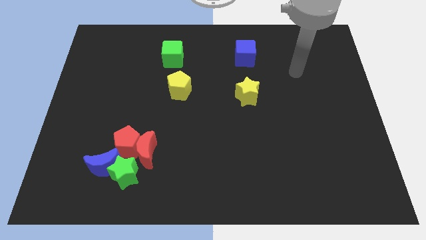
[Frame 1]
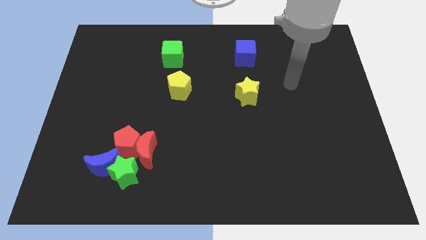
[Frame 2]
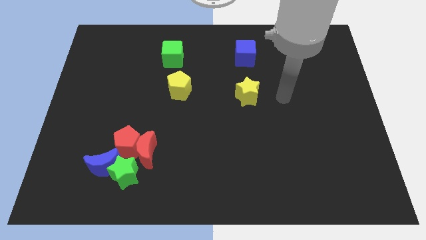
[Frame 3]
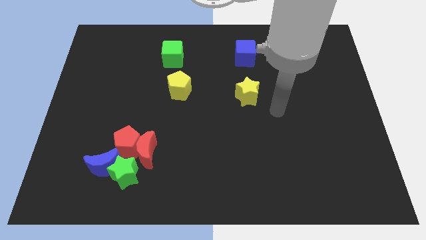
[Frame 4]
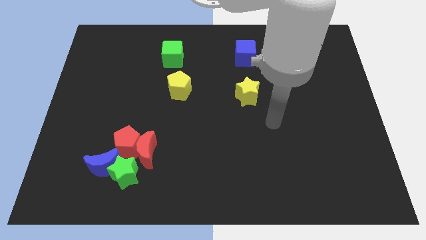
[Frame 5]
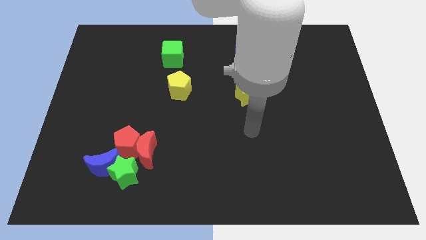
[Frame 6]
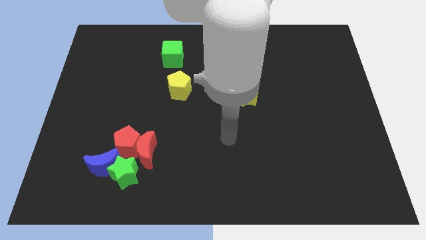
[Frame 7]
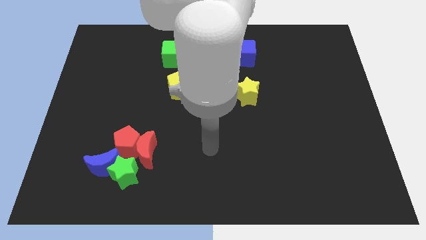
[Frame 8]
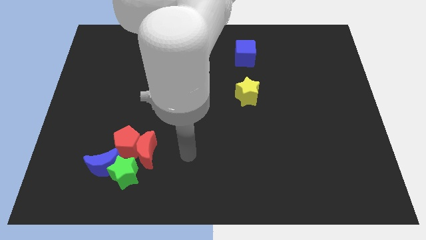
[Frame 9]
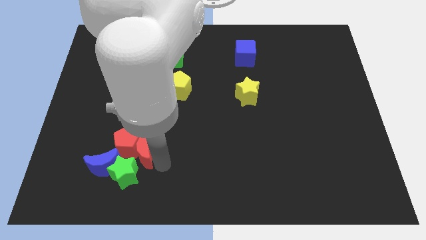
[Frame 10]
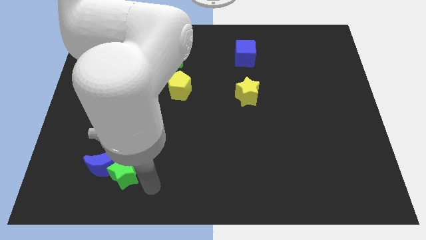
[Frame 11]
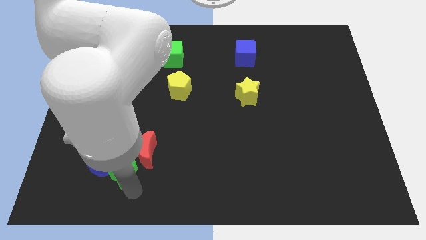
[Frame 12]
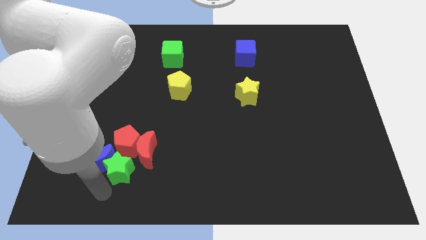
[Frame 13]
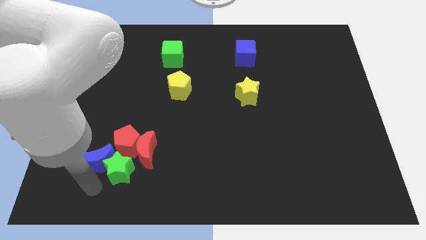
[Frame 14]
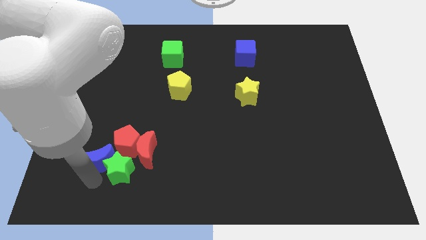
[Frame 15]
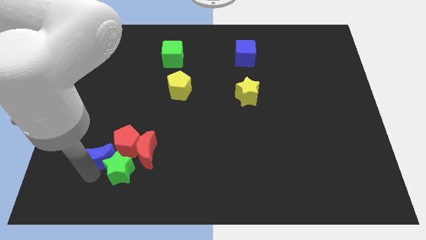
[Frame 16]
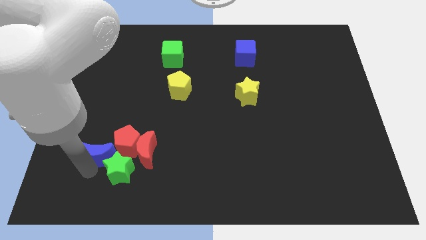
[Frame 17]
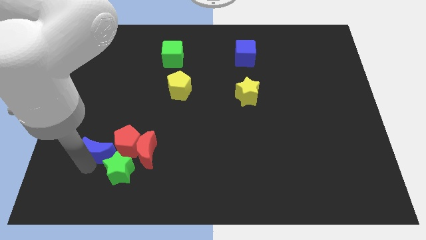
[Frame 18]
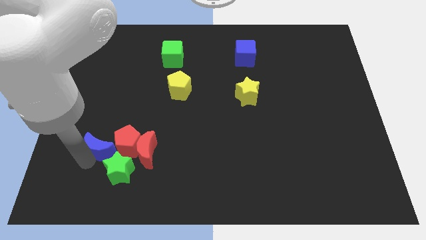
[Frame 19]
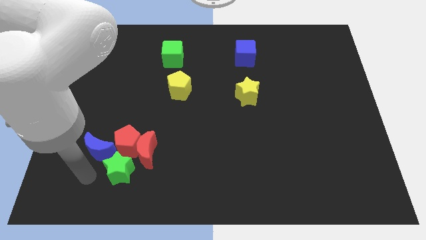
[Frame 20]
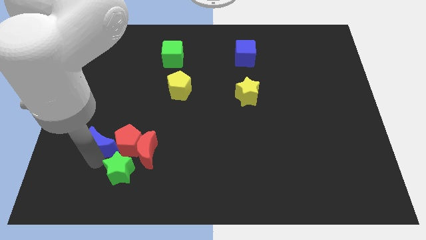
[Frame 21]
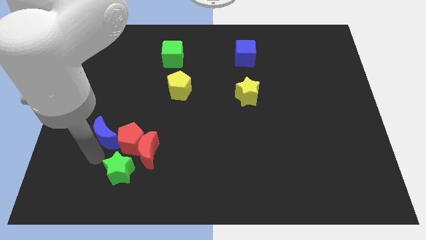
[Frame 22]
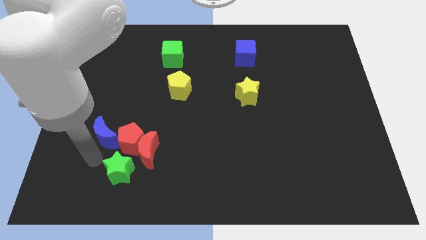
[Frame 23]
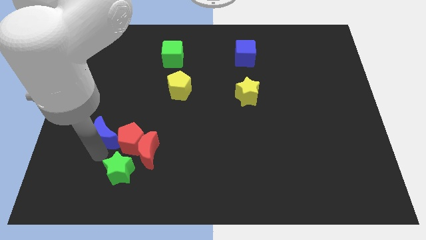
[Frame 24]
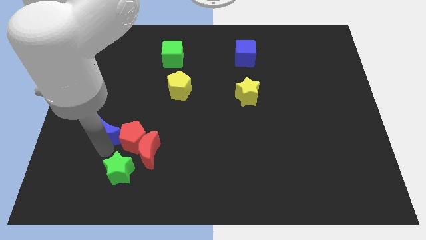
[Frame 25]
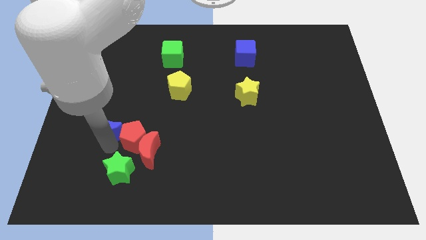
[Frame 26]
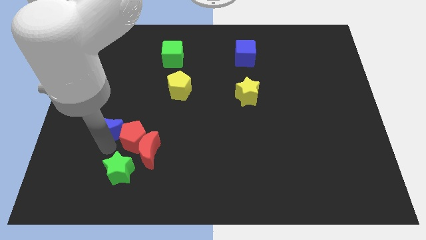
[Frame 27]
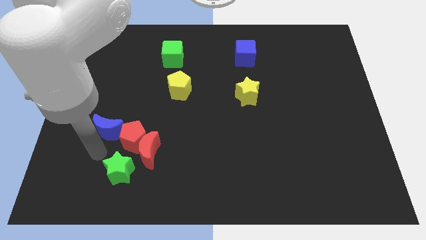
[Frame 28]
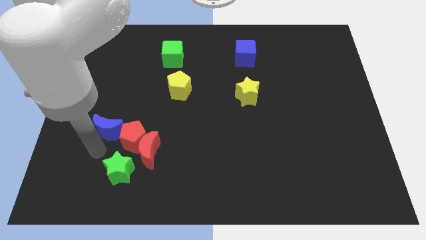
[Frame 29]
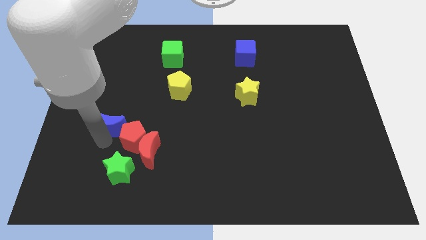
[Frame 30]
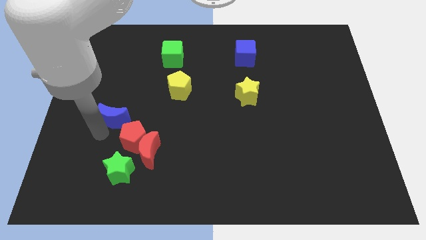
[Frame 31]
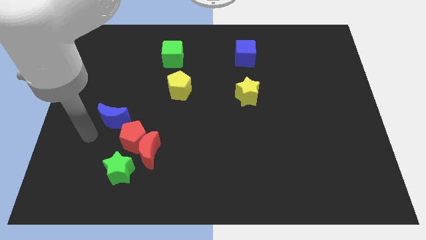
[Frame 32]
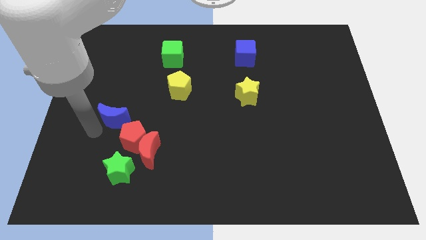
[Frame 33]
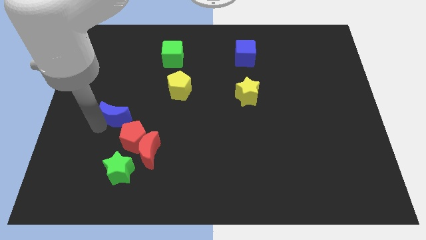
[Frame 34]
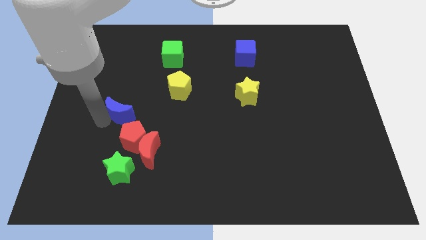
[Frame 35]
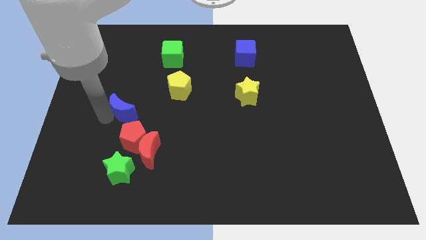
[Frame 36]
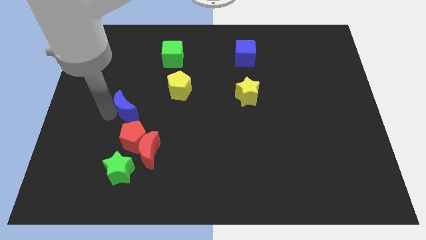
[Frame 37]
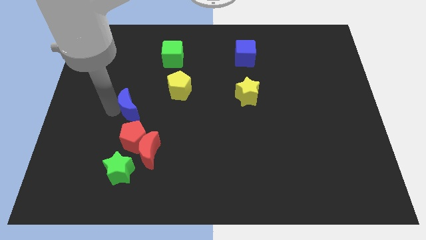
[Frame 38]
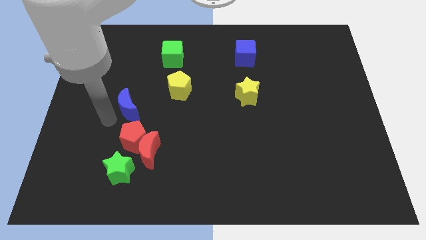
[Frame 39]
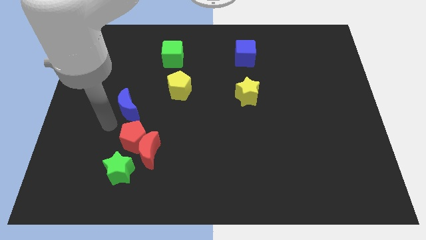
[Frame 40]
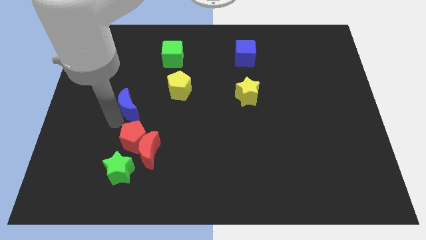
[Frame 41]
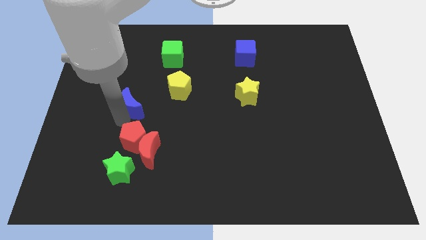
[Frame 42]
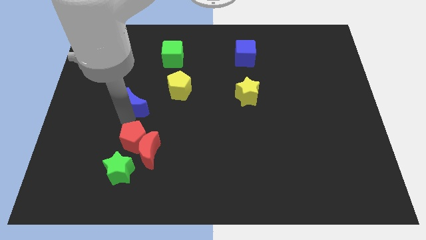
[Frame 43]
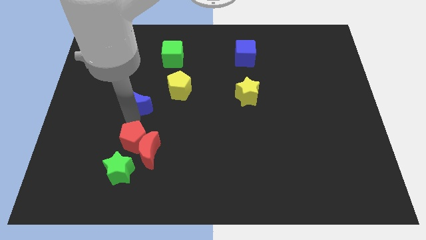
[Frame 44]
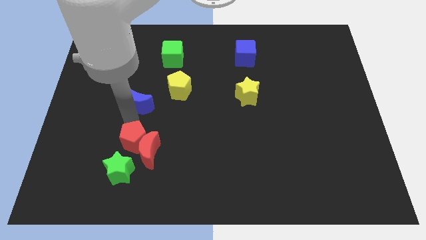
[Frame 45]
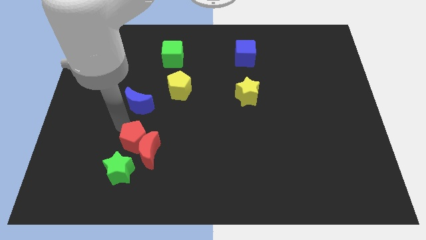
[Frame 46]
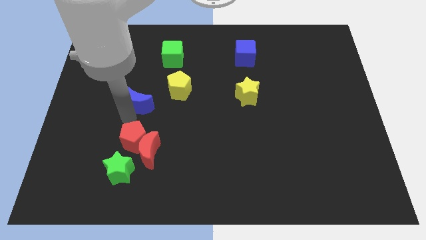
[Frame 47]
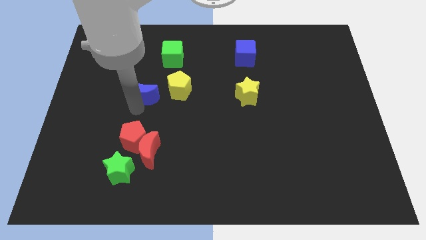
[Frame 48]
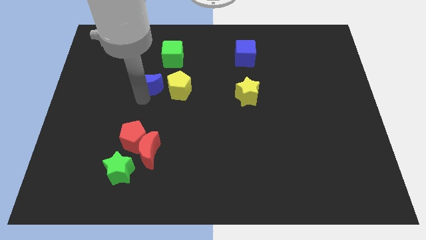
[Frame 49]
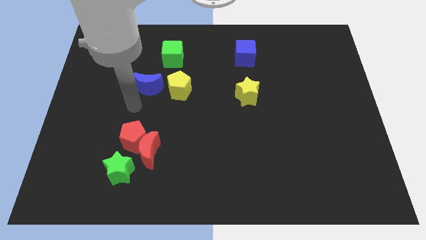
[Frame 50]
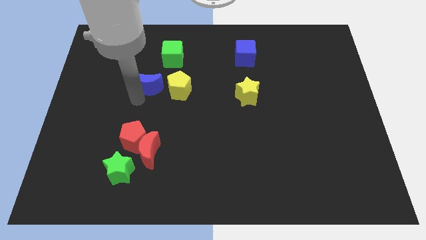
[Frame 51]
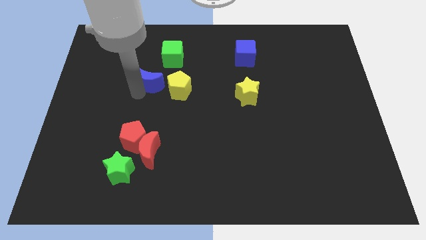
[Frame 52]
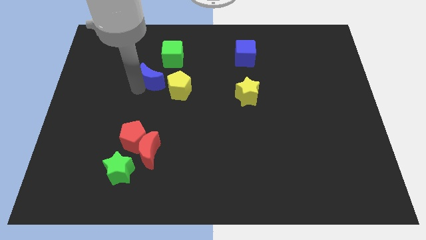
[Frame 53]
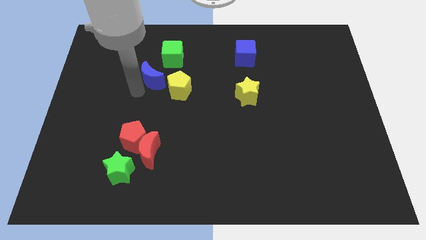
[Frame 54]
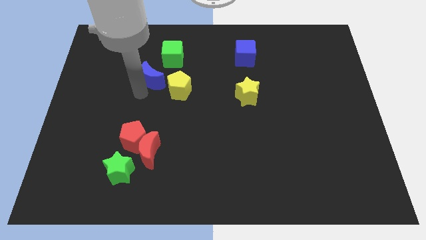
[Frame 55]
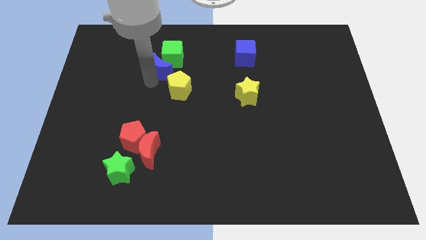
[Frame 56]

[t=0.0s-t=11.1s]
put the blue moon close to the green cube

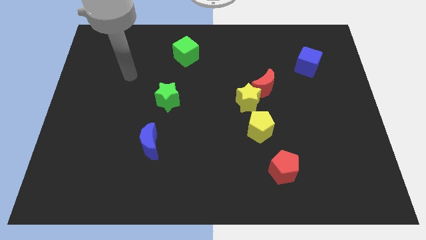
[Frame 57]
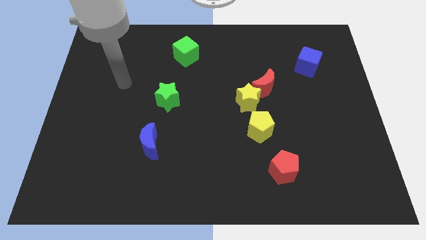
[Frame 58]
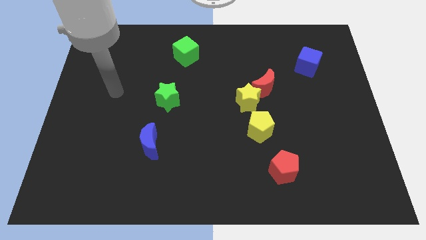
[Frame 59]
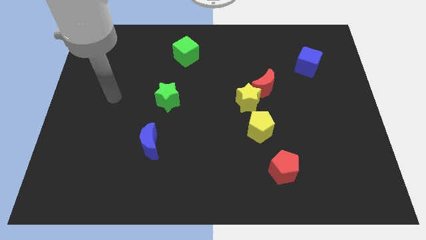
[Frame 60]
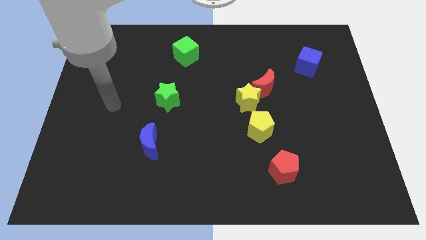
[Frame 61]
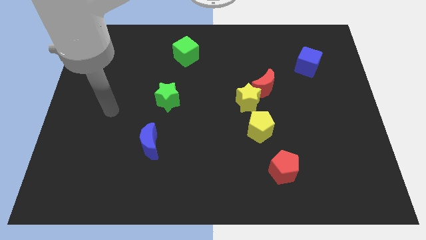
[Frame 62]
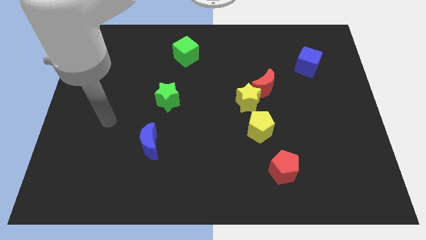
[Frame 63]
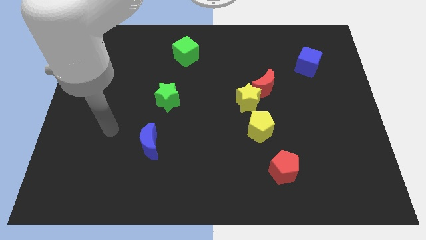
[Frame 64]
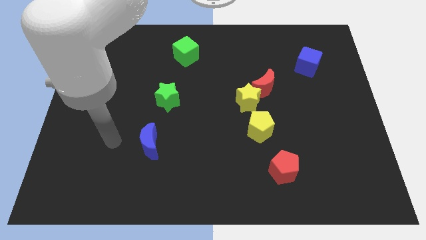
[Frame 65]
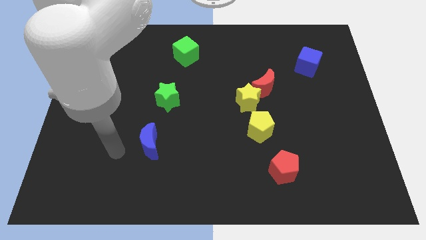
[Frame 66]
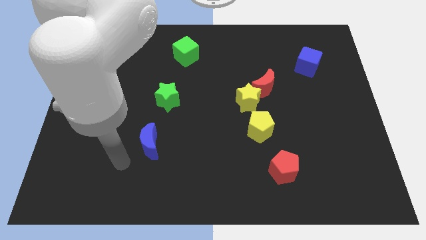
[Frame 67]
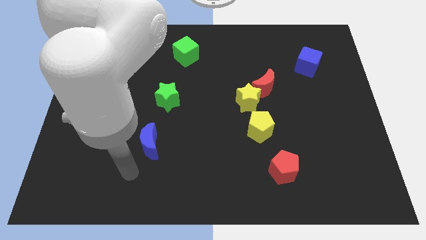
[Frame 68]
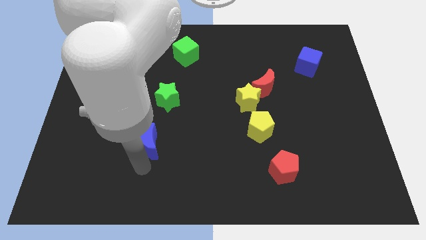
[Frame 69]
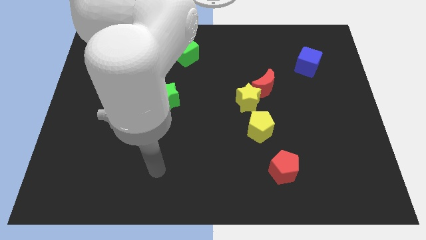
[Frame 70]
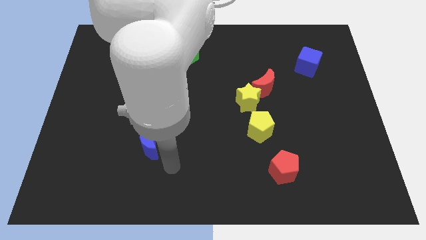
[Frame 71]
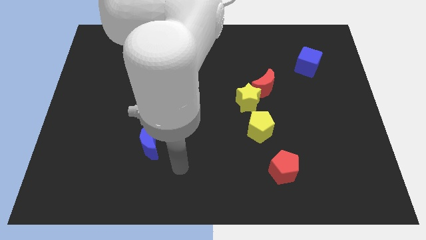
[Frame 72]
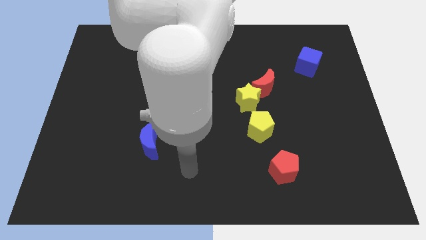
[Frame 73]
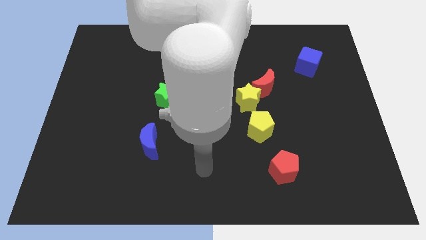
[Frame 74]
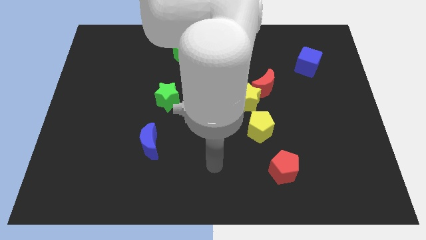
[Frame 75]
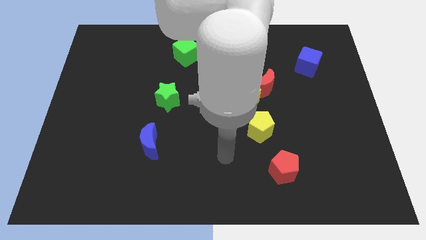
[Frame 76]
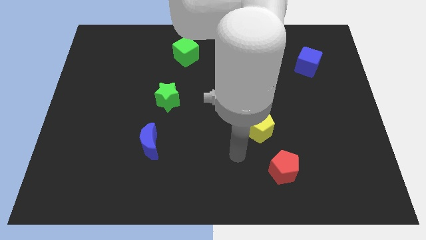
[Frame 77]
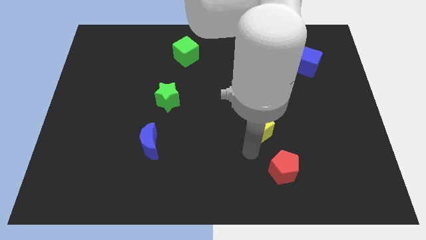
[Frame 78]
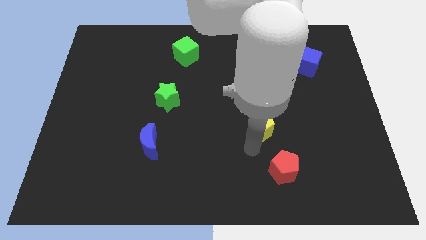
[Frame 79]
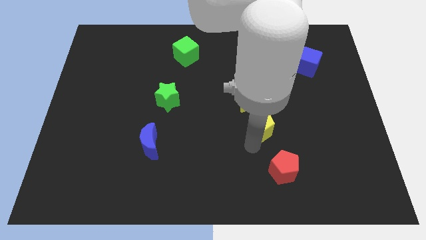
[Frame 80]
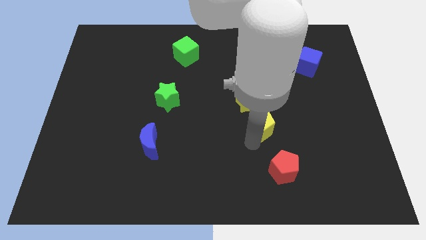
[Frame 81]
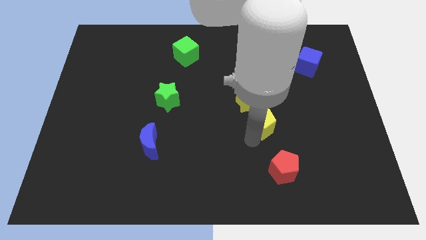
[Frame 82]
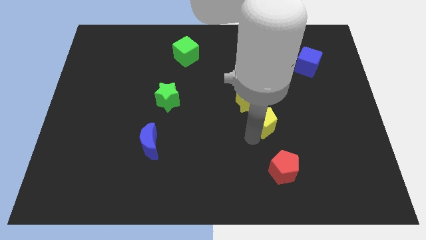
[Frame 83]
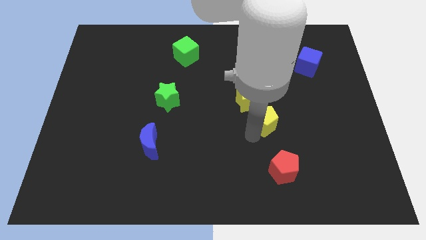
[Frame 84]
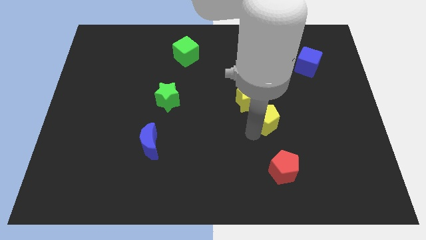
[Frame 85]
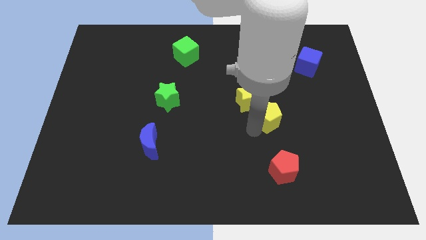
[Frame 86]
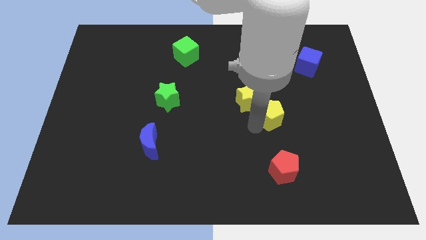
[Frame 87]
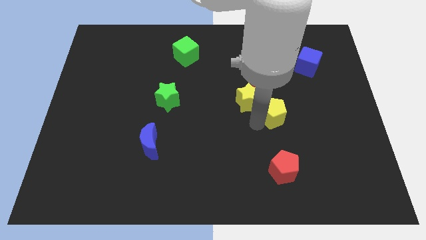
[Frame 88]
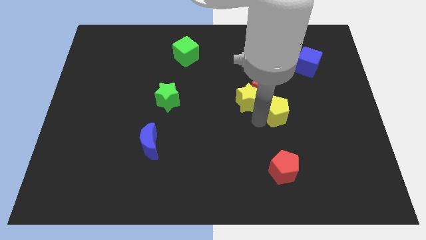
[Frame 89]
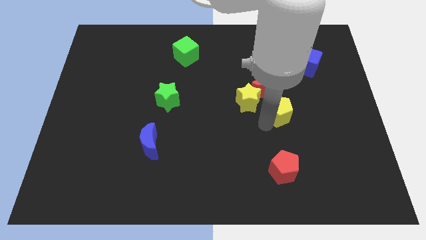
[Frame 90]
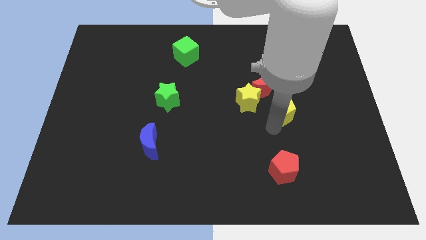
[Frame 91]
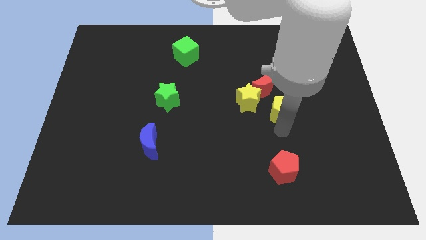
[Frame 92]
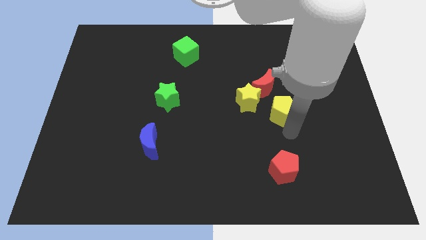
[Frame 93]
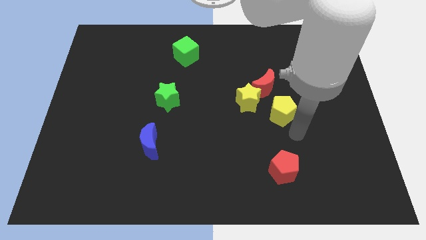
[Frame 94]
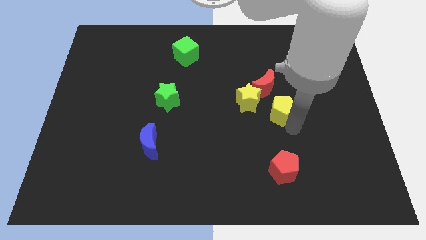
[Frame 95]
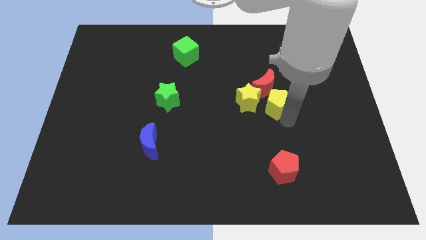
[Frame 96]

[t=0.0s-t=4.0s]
move the yellow pentagon close to the red moon
